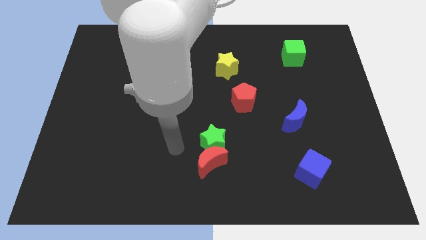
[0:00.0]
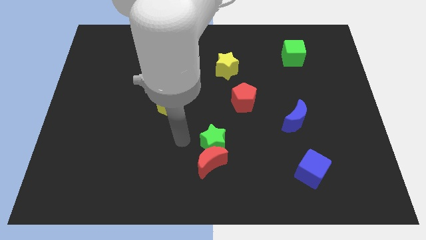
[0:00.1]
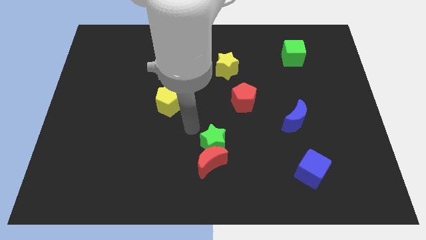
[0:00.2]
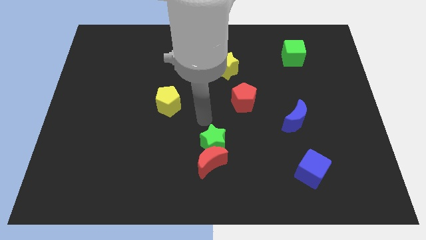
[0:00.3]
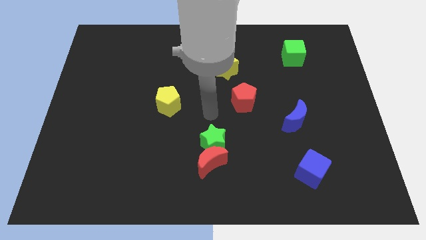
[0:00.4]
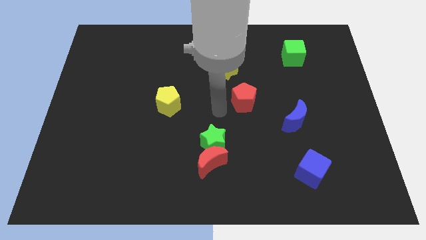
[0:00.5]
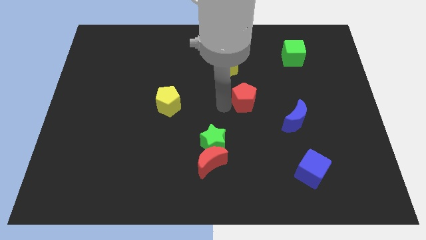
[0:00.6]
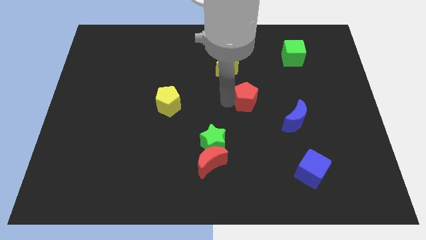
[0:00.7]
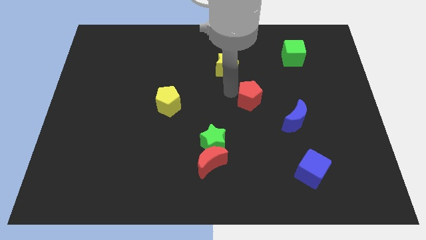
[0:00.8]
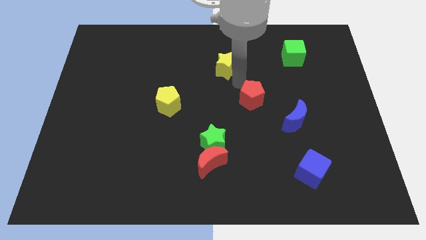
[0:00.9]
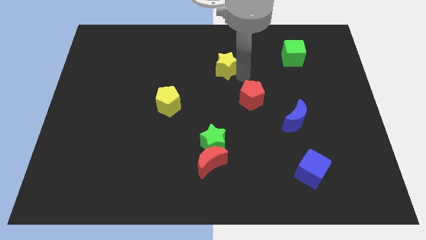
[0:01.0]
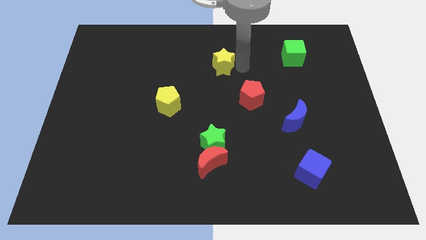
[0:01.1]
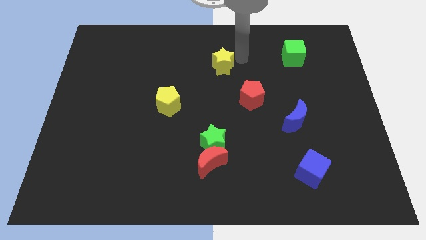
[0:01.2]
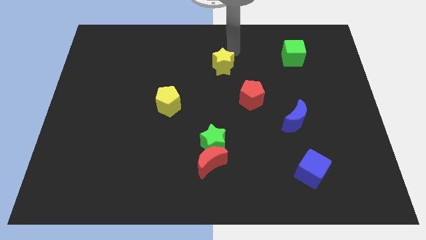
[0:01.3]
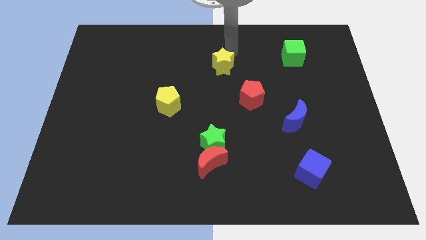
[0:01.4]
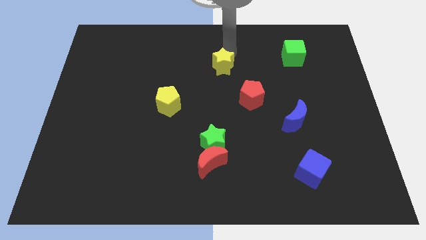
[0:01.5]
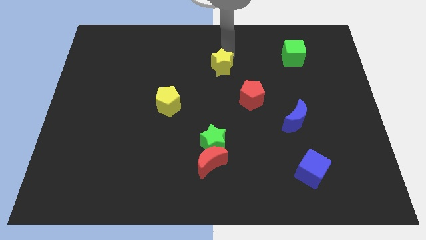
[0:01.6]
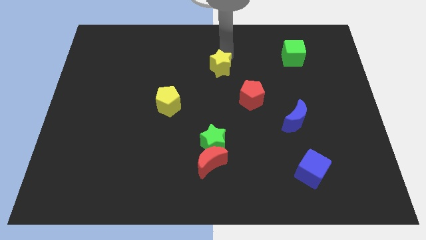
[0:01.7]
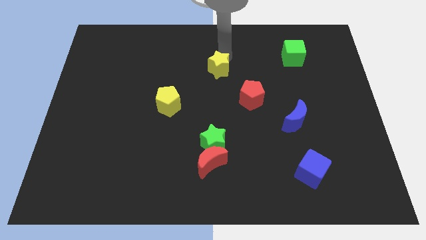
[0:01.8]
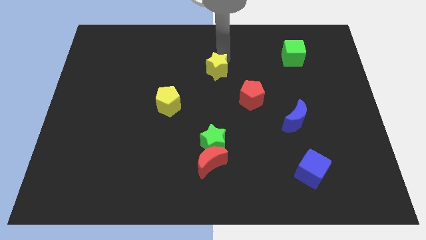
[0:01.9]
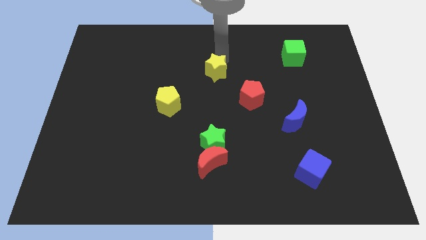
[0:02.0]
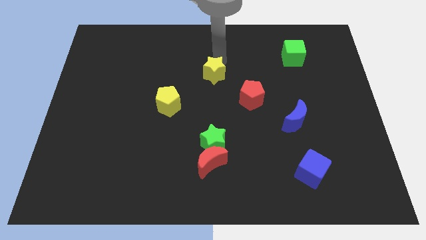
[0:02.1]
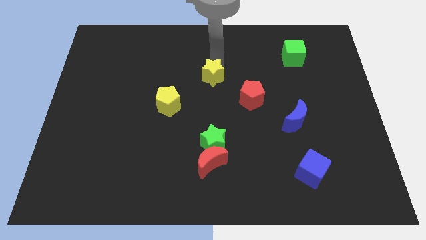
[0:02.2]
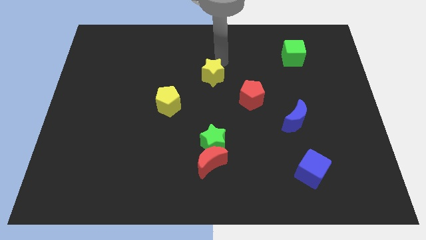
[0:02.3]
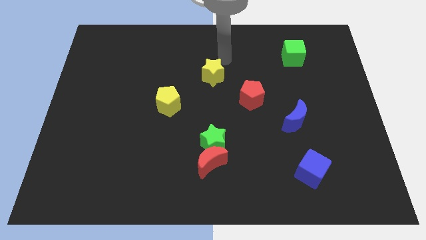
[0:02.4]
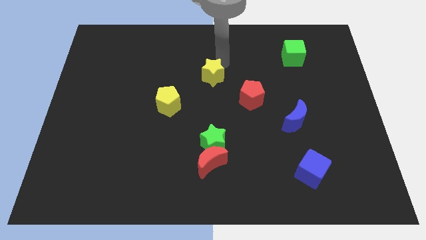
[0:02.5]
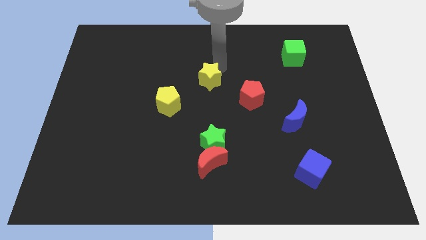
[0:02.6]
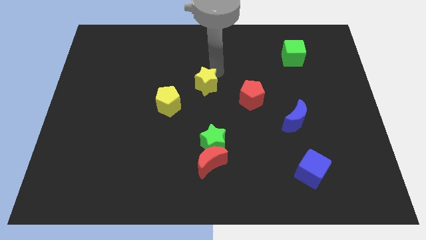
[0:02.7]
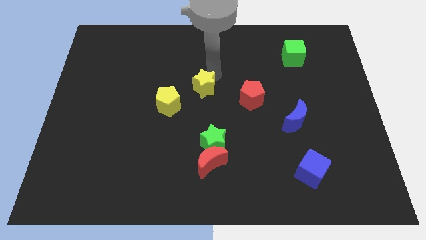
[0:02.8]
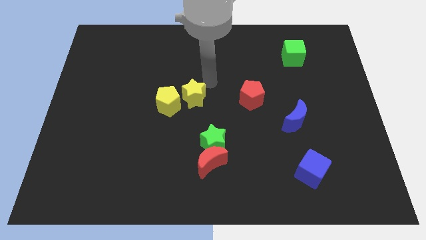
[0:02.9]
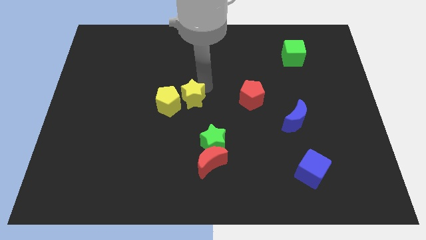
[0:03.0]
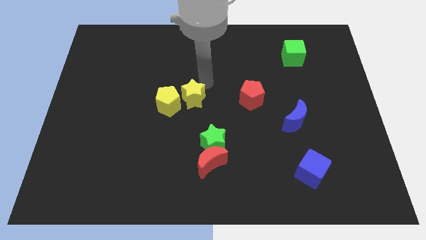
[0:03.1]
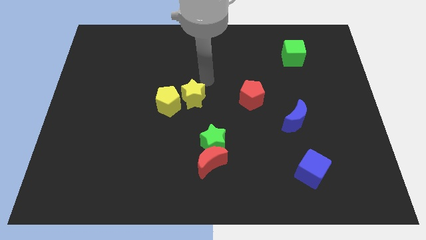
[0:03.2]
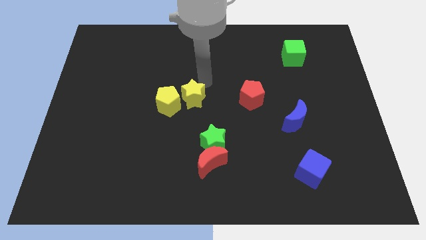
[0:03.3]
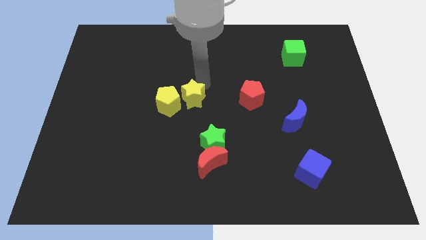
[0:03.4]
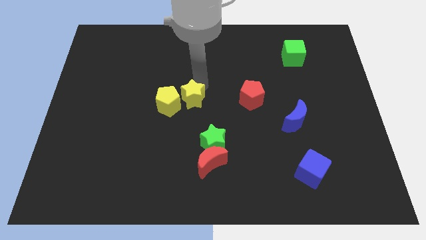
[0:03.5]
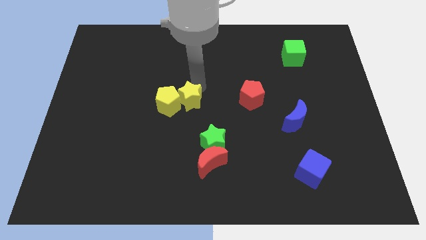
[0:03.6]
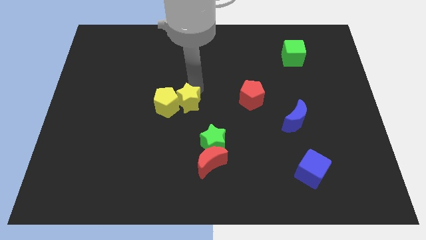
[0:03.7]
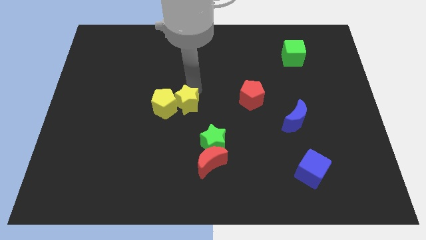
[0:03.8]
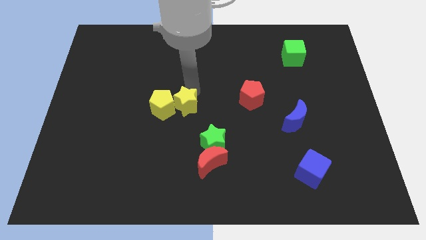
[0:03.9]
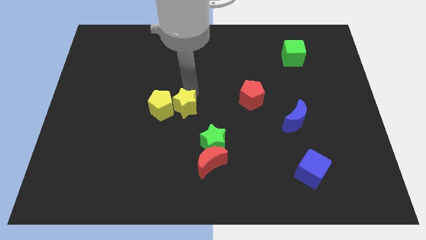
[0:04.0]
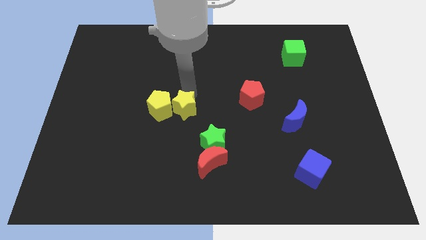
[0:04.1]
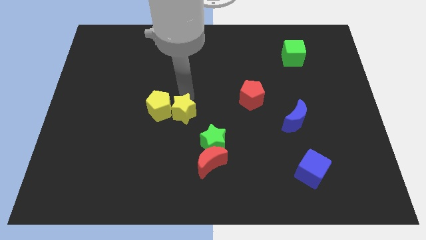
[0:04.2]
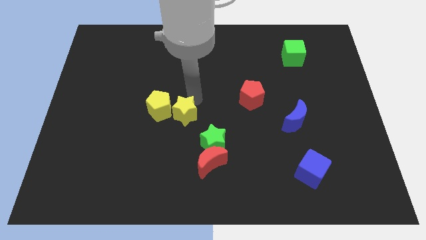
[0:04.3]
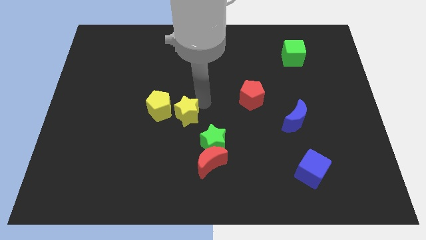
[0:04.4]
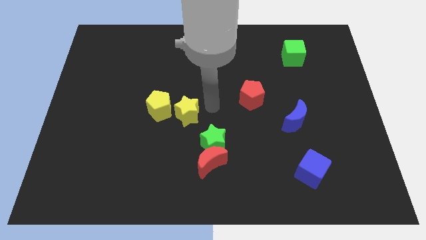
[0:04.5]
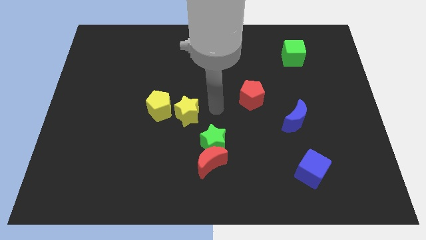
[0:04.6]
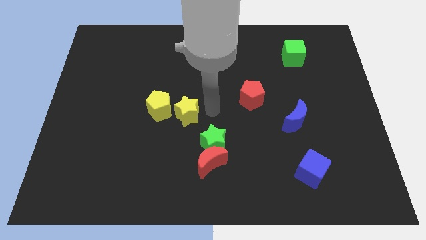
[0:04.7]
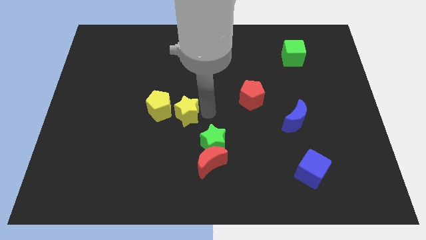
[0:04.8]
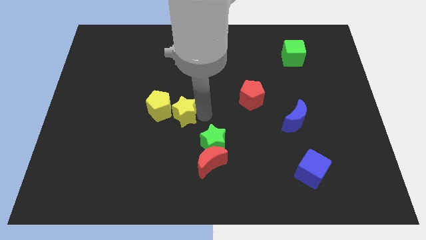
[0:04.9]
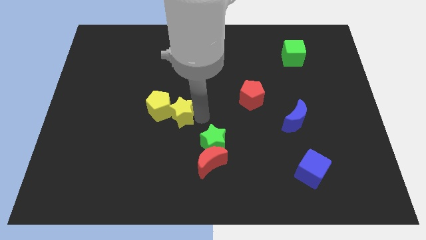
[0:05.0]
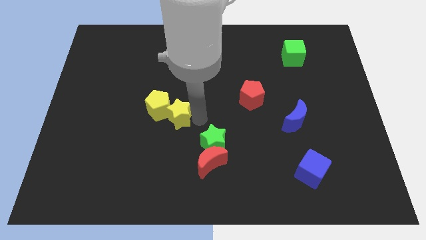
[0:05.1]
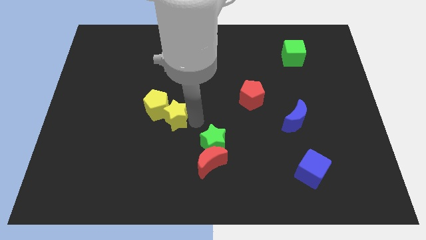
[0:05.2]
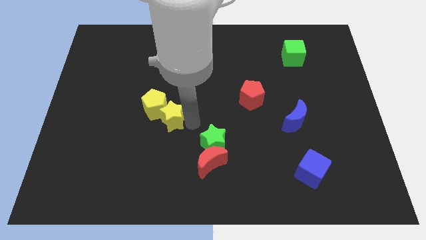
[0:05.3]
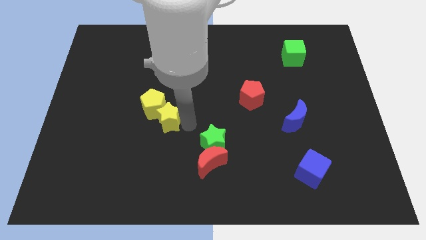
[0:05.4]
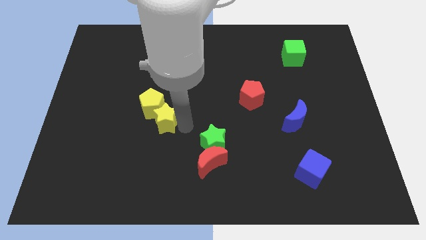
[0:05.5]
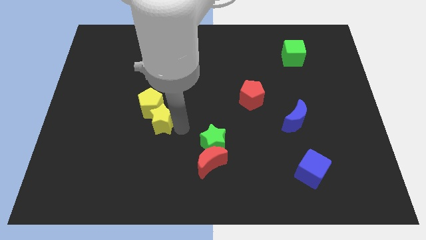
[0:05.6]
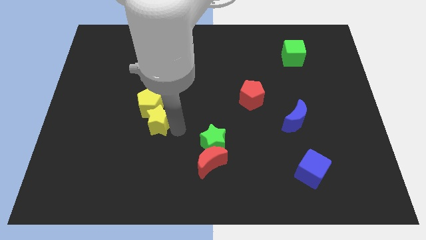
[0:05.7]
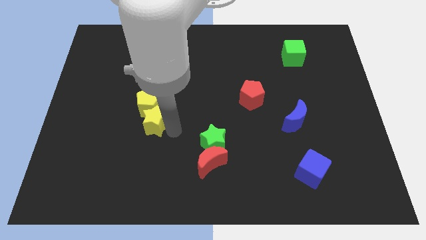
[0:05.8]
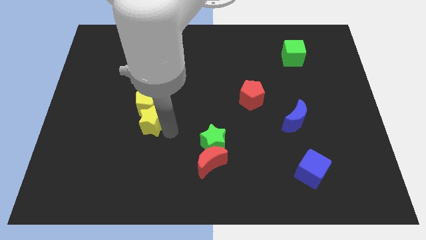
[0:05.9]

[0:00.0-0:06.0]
push the yellow star diagonally down and to the left of the yellow pentagon

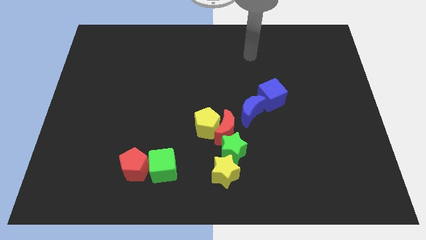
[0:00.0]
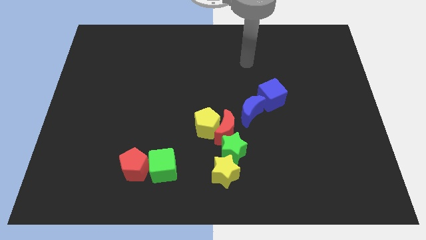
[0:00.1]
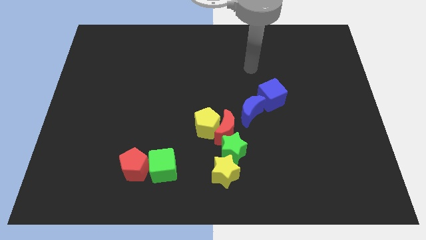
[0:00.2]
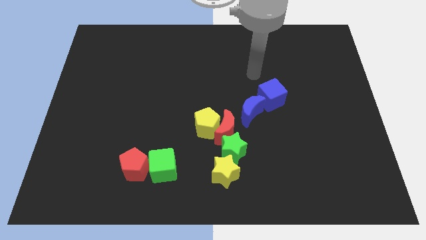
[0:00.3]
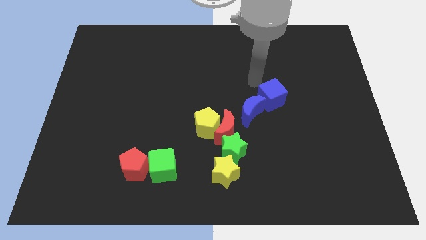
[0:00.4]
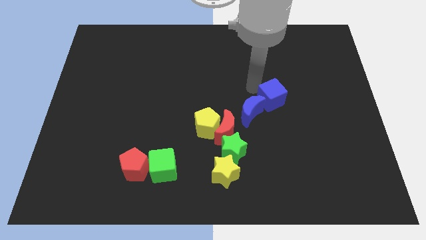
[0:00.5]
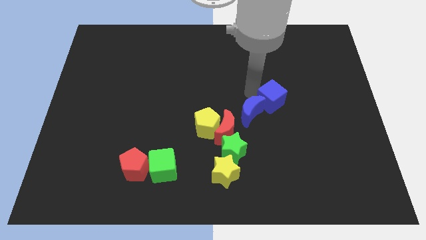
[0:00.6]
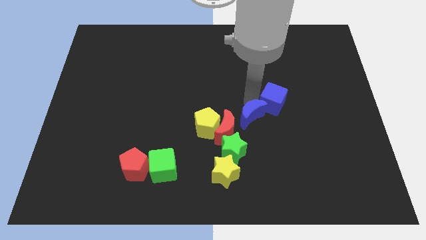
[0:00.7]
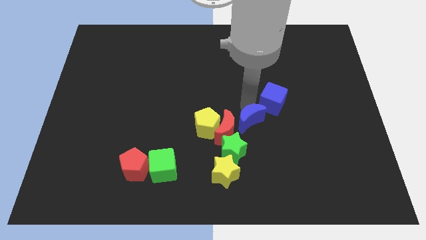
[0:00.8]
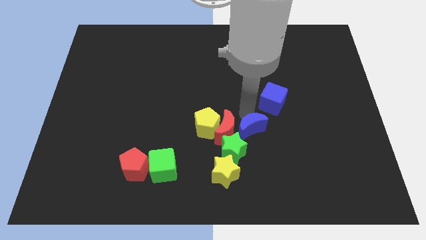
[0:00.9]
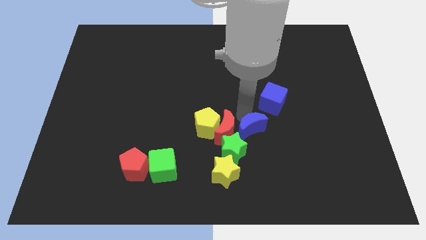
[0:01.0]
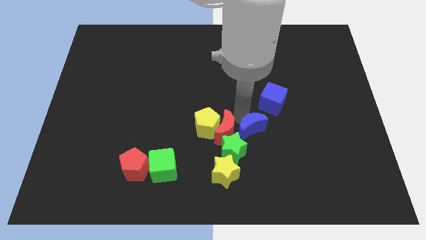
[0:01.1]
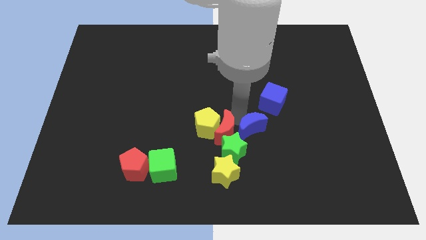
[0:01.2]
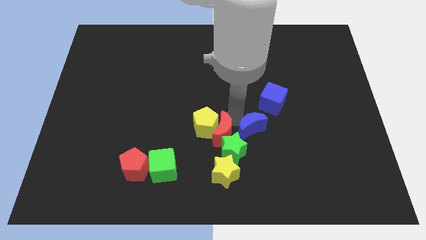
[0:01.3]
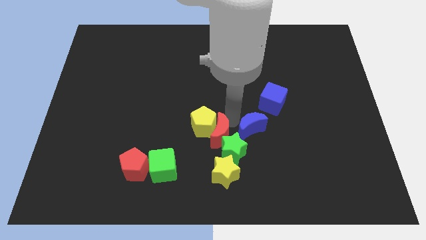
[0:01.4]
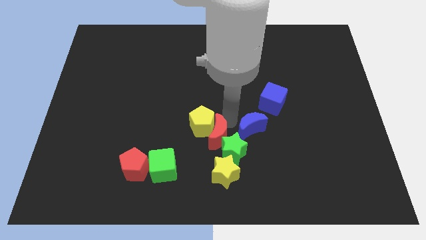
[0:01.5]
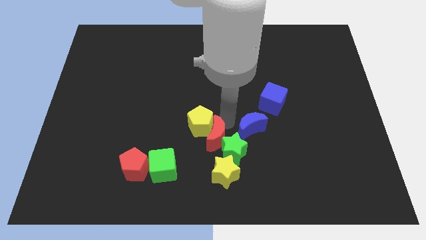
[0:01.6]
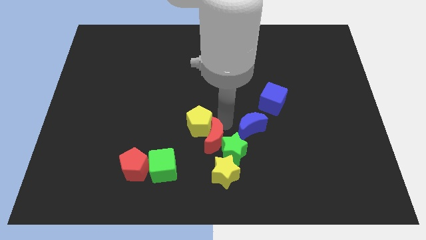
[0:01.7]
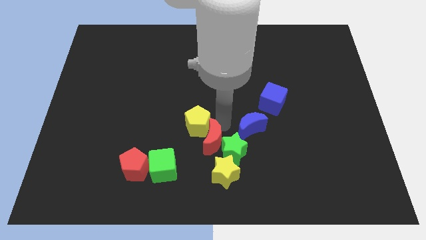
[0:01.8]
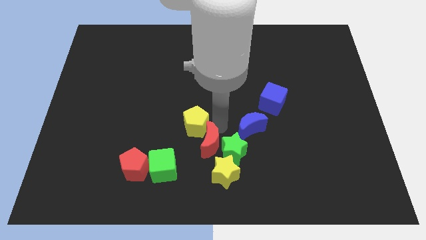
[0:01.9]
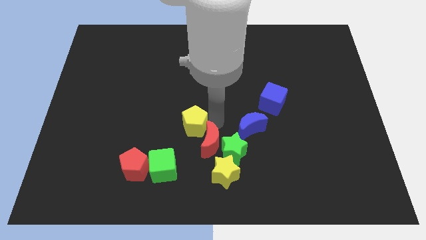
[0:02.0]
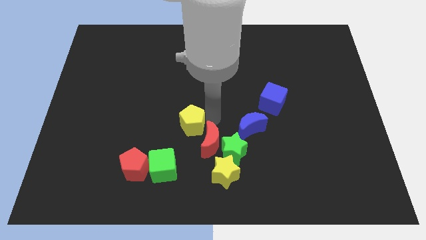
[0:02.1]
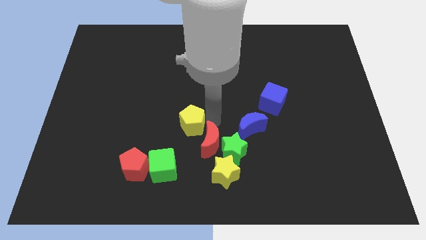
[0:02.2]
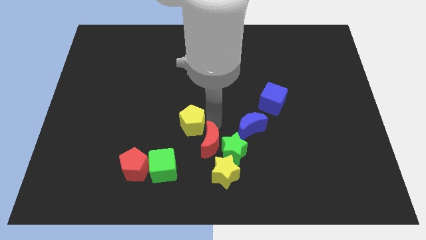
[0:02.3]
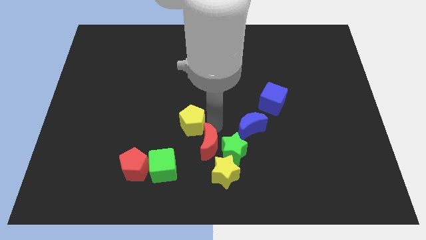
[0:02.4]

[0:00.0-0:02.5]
push the red moon to the bottom left side of the green star
